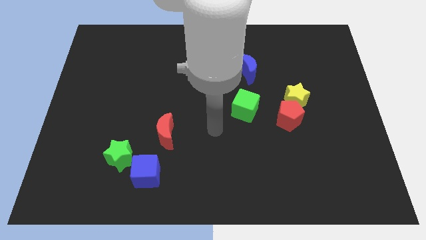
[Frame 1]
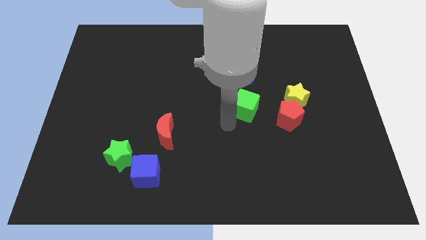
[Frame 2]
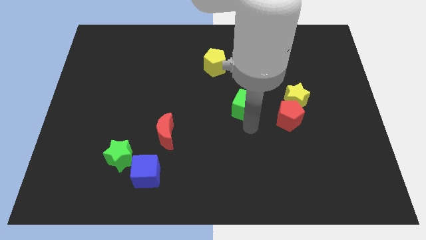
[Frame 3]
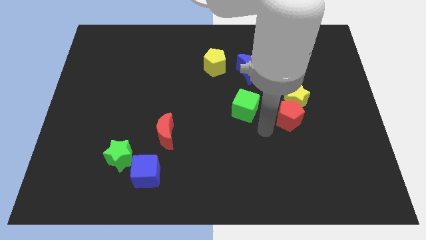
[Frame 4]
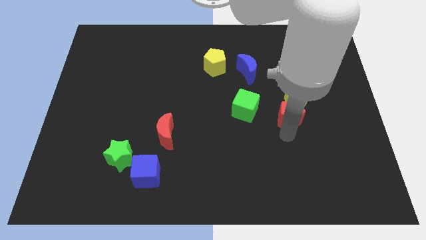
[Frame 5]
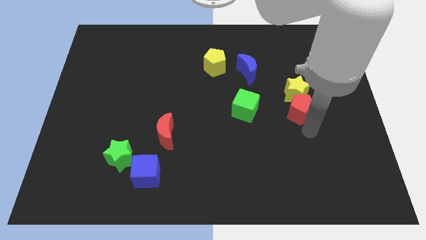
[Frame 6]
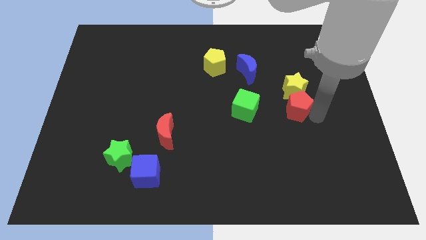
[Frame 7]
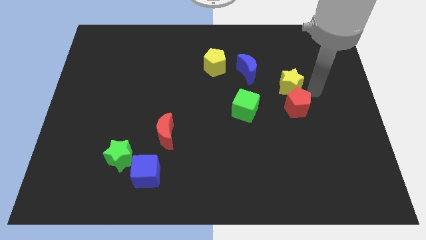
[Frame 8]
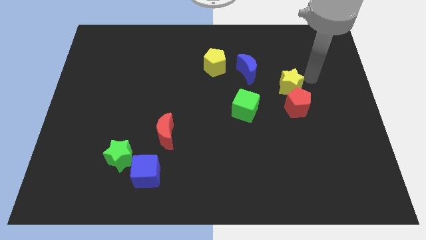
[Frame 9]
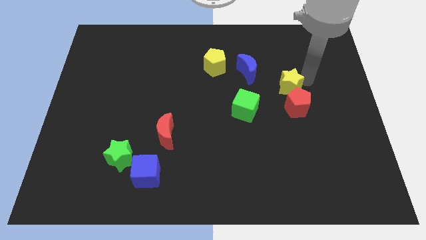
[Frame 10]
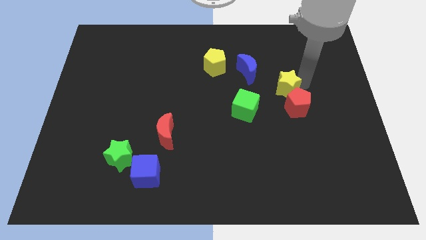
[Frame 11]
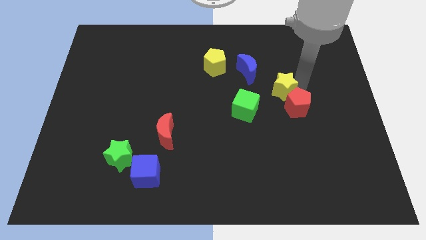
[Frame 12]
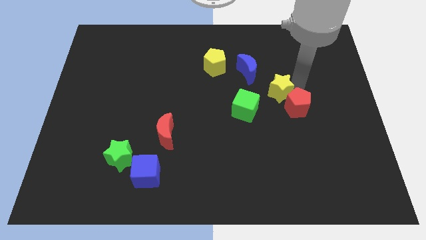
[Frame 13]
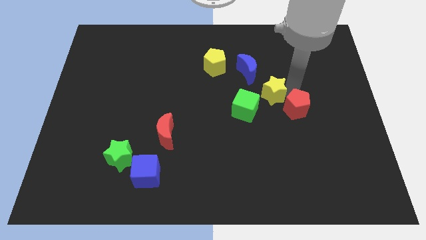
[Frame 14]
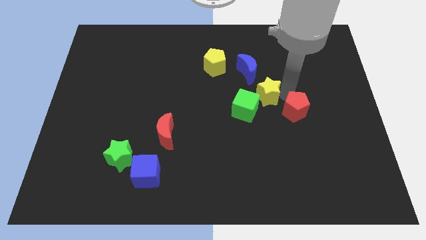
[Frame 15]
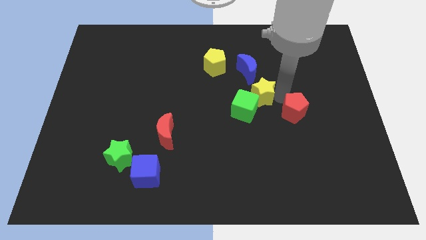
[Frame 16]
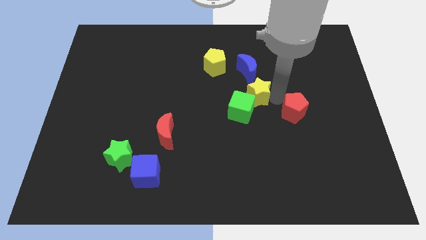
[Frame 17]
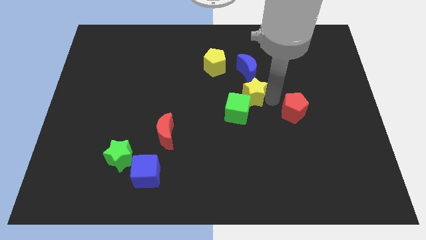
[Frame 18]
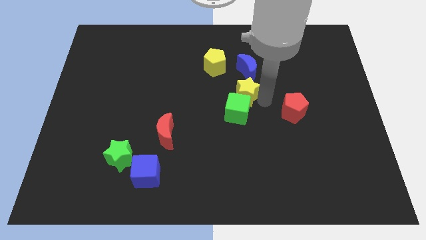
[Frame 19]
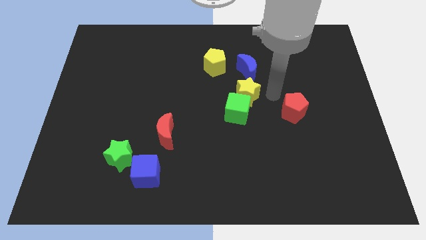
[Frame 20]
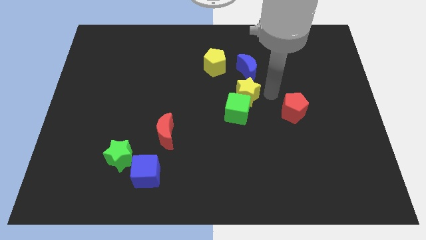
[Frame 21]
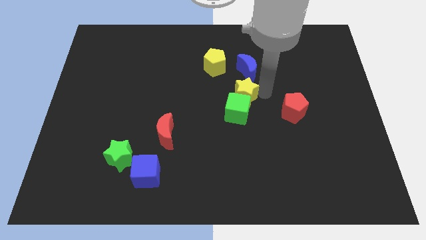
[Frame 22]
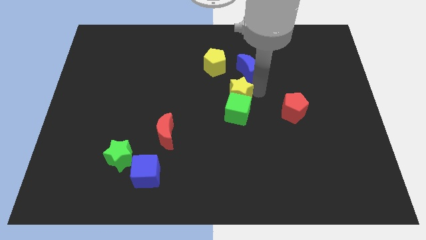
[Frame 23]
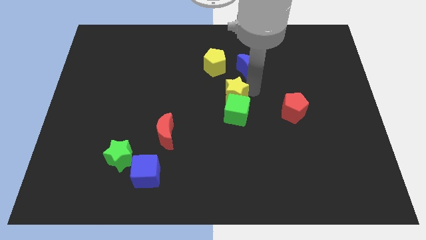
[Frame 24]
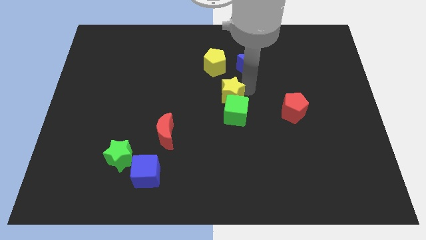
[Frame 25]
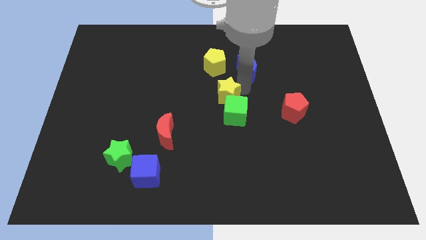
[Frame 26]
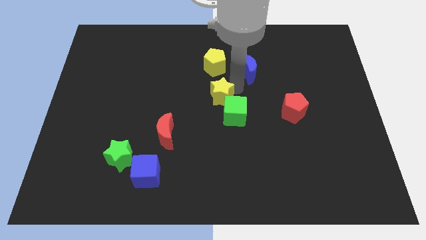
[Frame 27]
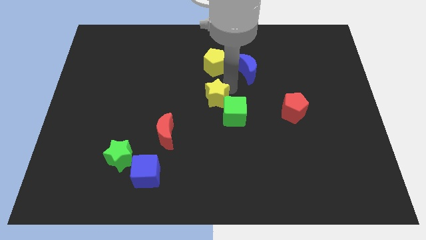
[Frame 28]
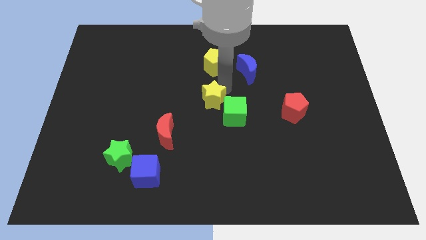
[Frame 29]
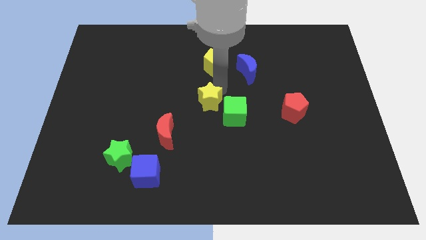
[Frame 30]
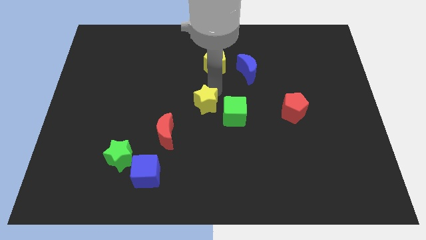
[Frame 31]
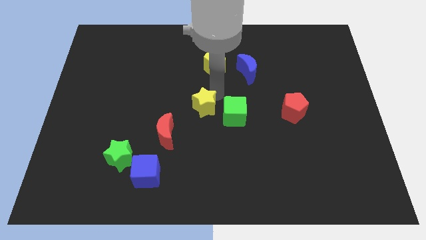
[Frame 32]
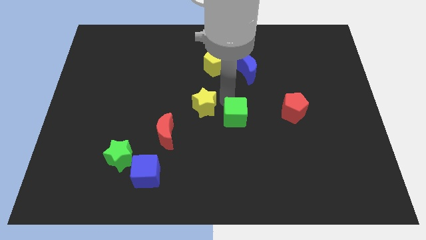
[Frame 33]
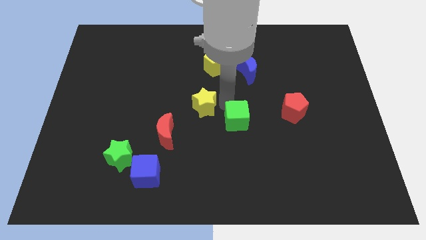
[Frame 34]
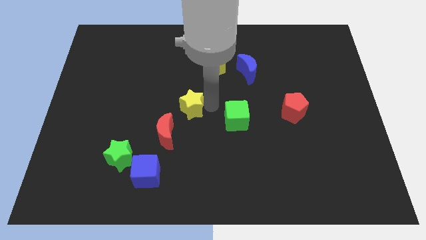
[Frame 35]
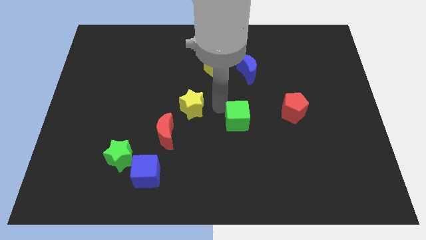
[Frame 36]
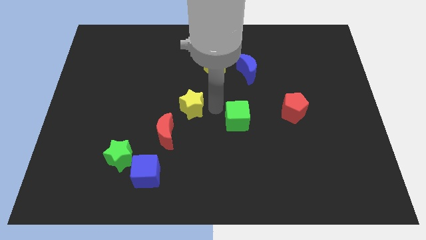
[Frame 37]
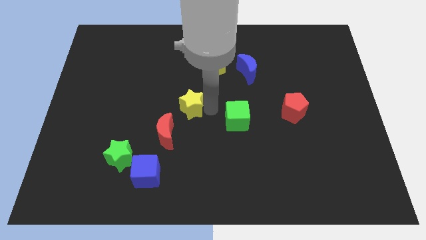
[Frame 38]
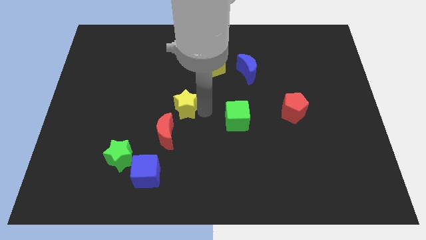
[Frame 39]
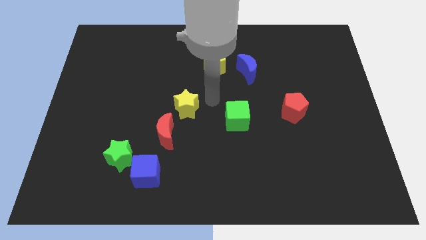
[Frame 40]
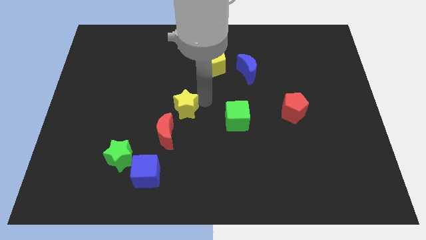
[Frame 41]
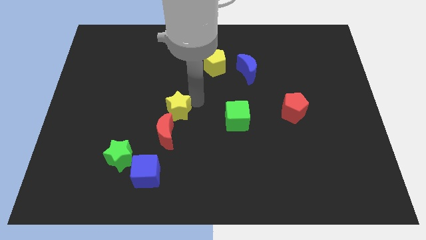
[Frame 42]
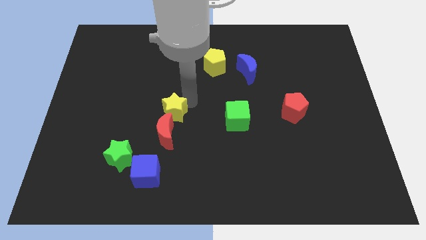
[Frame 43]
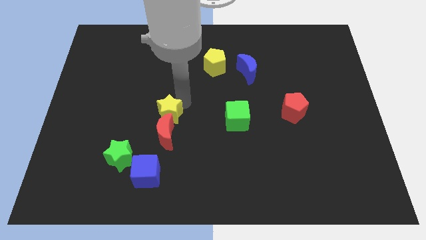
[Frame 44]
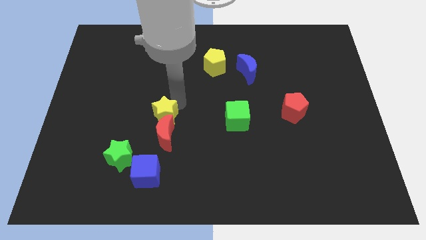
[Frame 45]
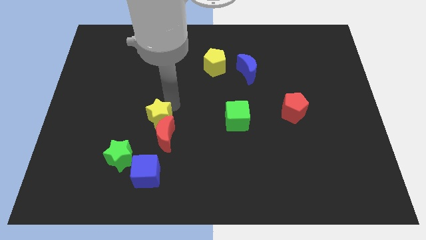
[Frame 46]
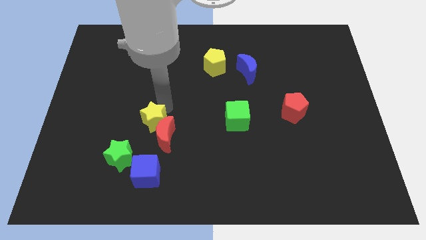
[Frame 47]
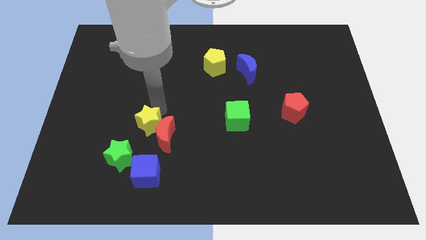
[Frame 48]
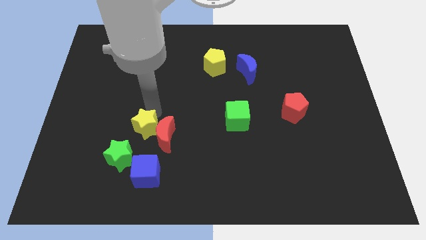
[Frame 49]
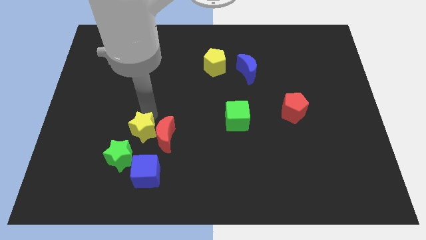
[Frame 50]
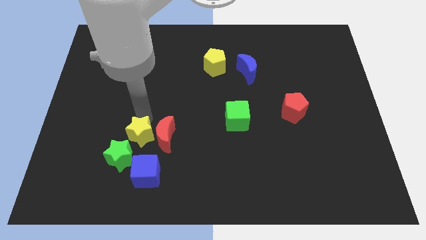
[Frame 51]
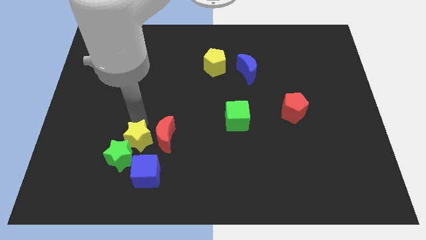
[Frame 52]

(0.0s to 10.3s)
move the yellow star next to the green star

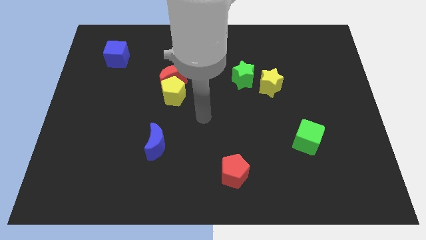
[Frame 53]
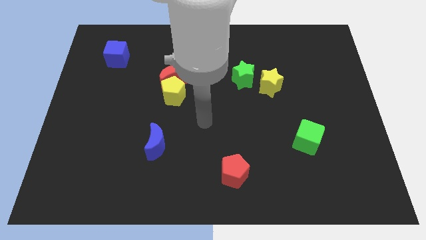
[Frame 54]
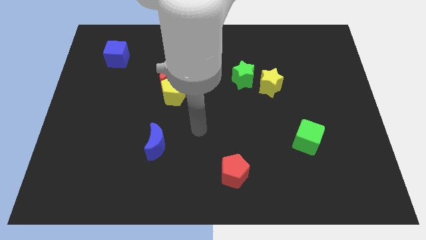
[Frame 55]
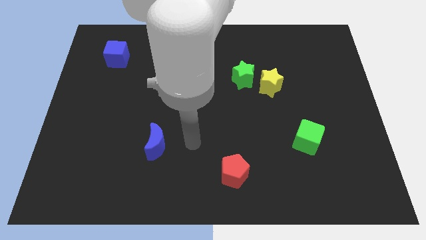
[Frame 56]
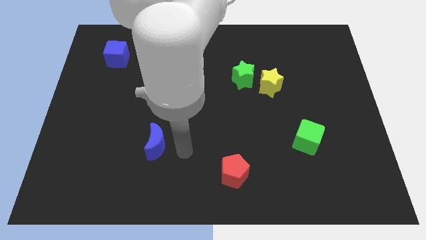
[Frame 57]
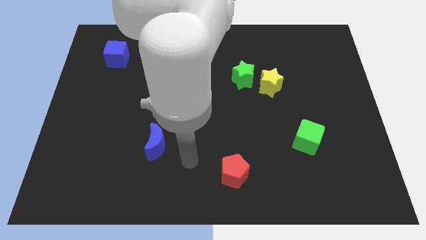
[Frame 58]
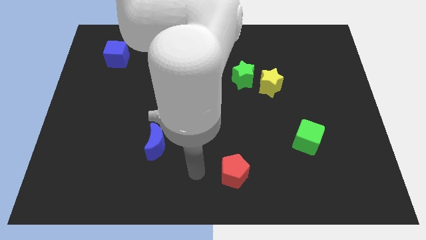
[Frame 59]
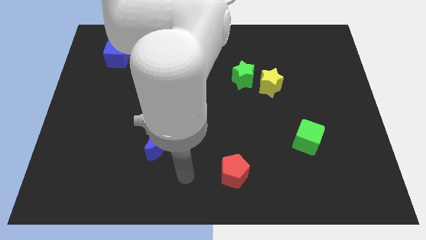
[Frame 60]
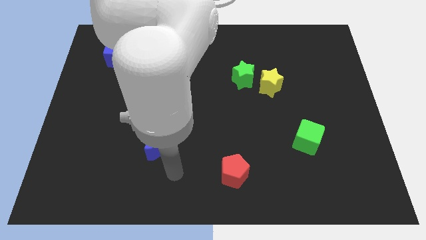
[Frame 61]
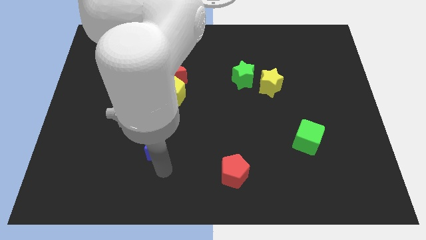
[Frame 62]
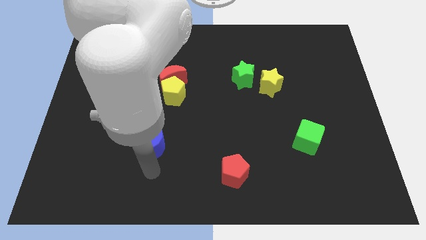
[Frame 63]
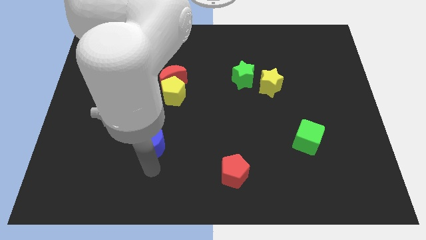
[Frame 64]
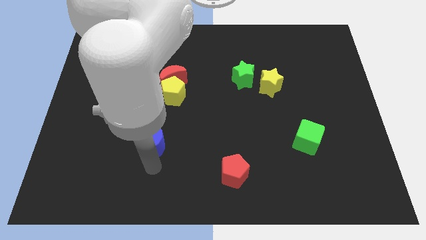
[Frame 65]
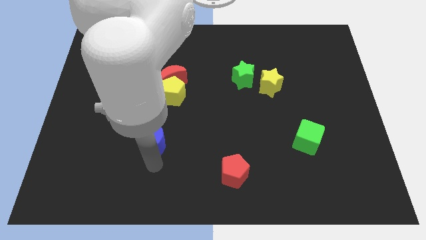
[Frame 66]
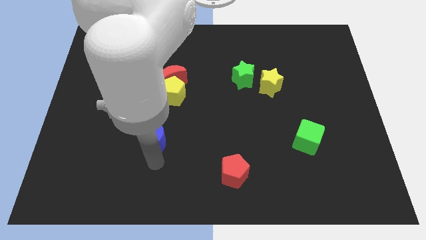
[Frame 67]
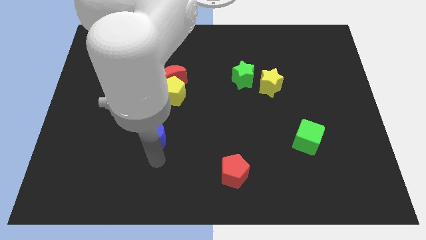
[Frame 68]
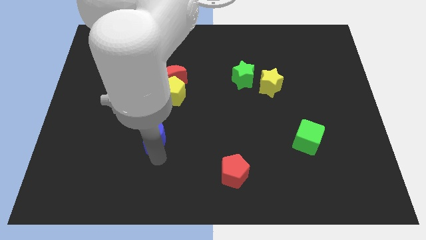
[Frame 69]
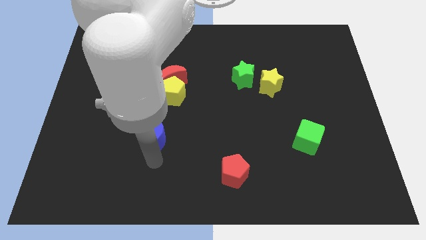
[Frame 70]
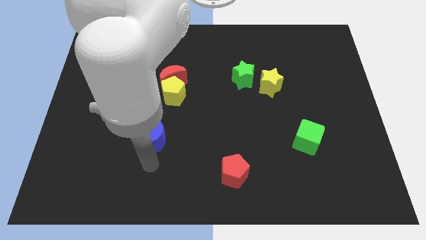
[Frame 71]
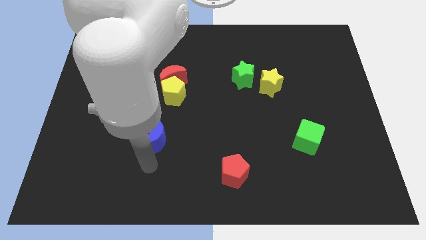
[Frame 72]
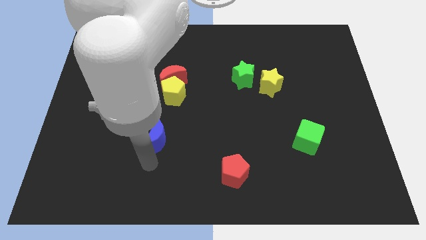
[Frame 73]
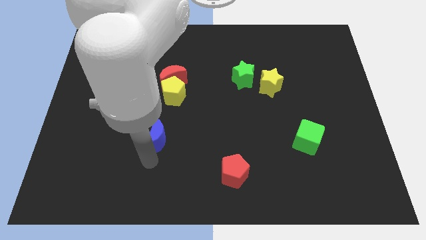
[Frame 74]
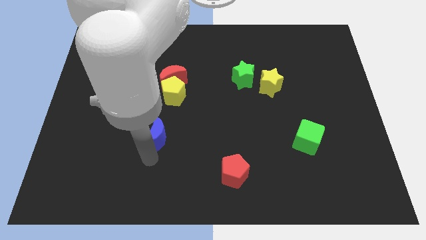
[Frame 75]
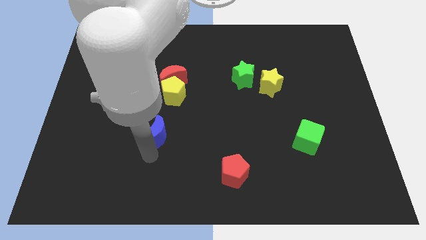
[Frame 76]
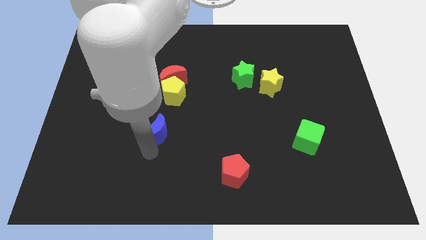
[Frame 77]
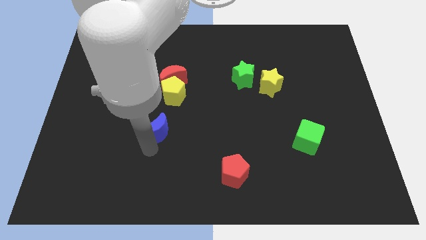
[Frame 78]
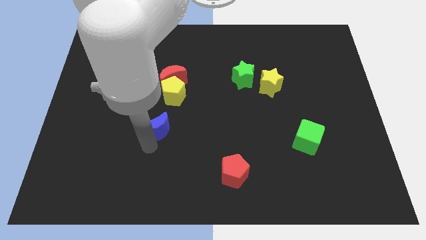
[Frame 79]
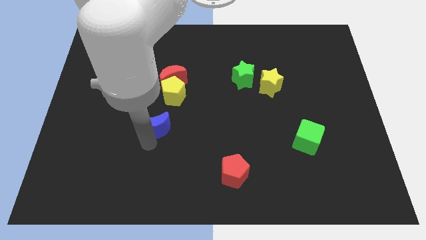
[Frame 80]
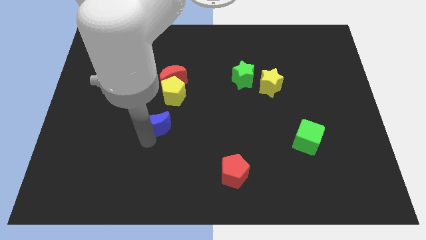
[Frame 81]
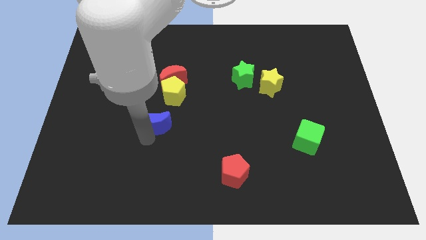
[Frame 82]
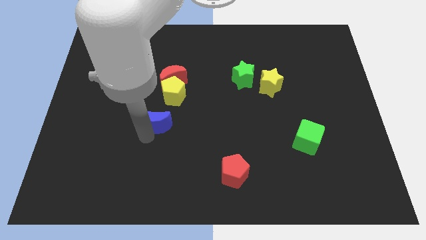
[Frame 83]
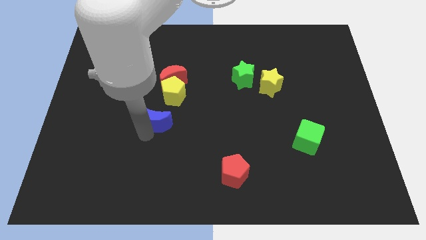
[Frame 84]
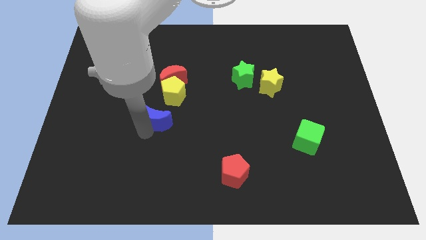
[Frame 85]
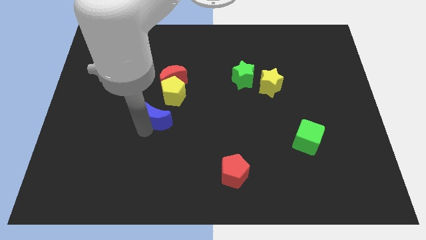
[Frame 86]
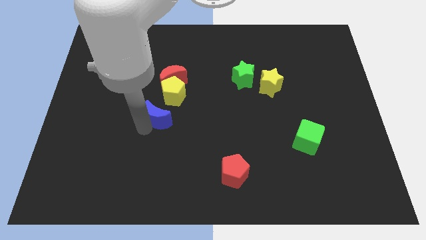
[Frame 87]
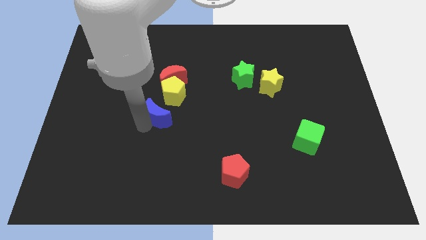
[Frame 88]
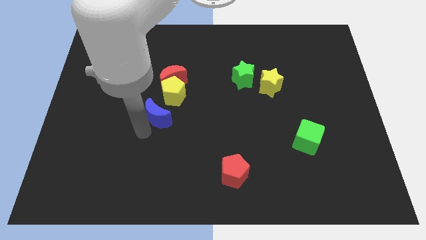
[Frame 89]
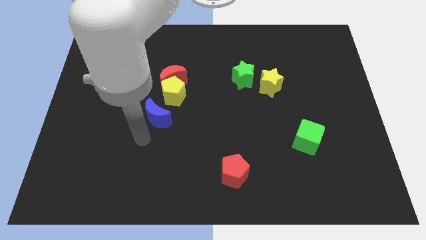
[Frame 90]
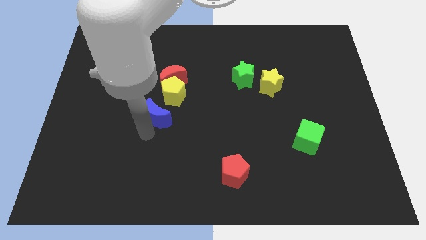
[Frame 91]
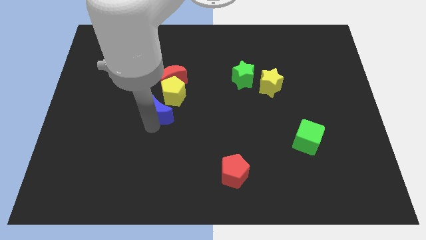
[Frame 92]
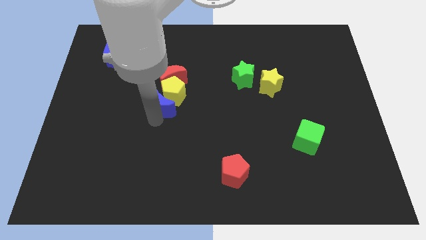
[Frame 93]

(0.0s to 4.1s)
put the blue moon towards the yellow pentagon
